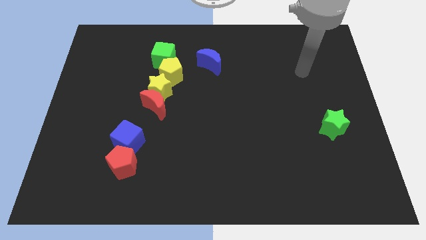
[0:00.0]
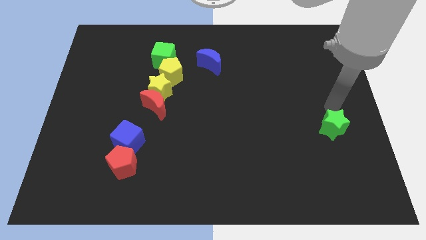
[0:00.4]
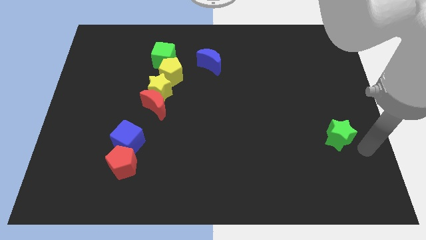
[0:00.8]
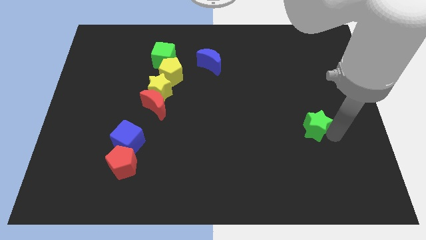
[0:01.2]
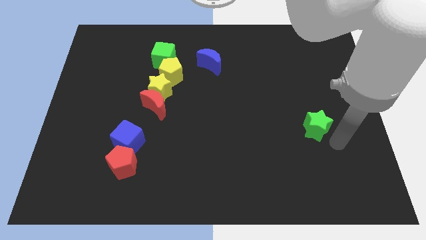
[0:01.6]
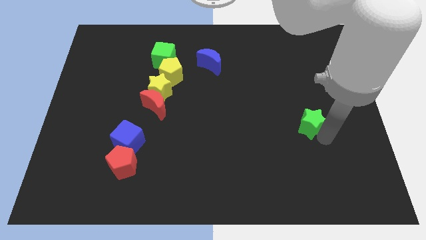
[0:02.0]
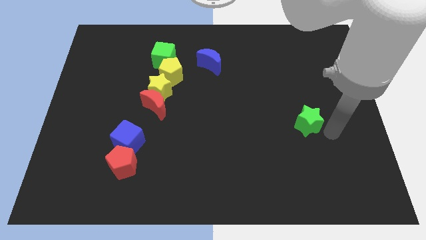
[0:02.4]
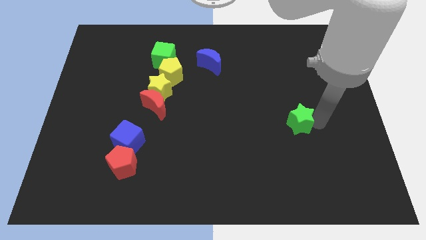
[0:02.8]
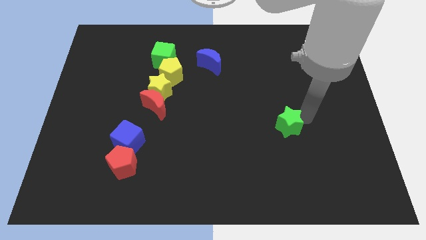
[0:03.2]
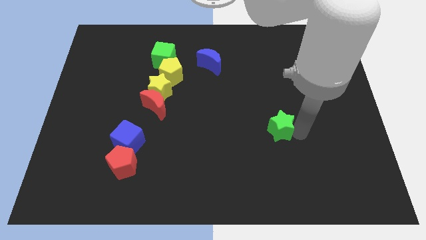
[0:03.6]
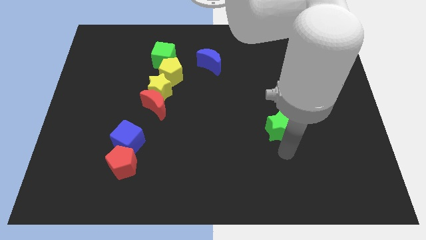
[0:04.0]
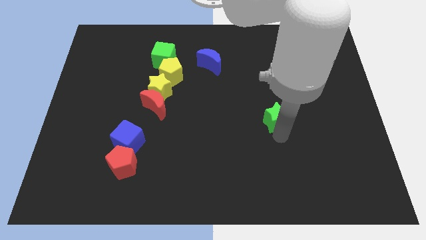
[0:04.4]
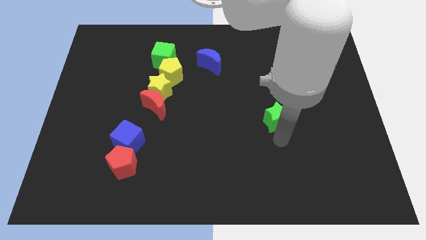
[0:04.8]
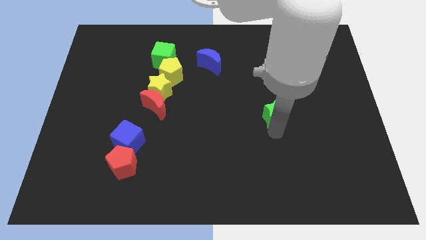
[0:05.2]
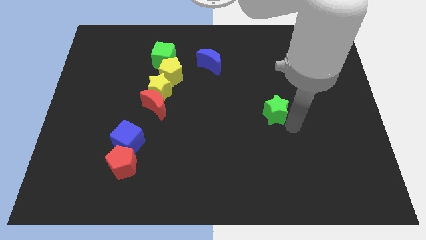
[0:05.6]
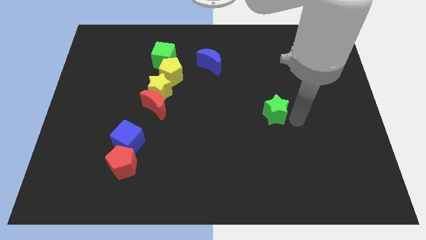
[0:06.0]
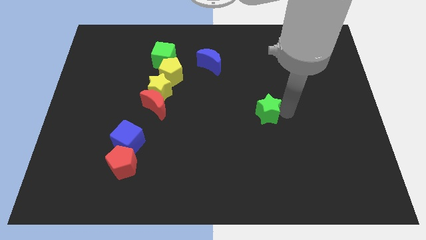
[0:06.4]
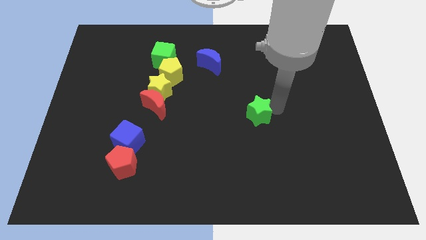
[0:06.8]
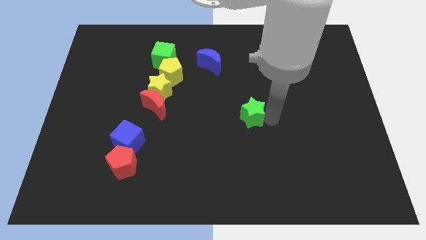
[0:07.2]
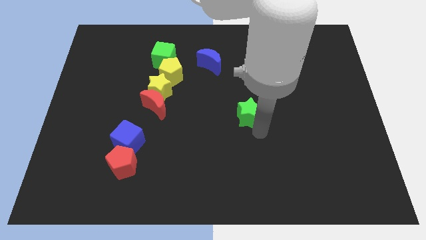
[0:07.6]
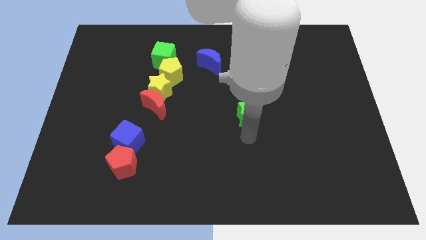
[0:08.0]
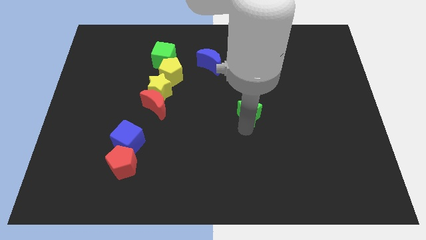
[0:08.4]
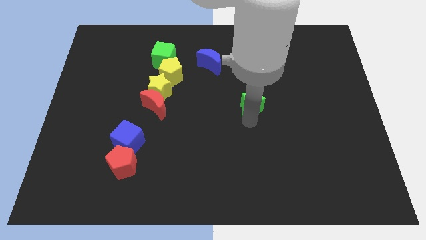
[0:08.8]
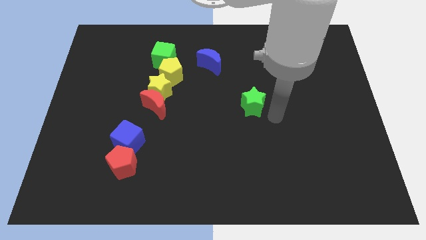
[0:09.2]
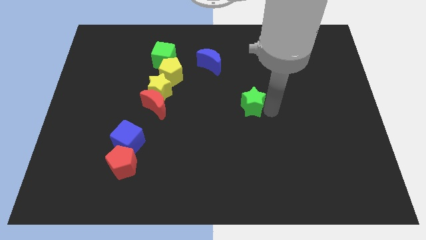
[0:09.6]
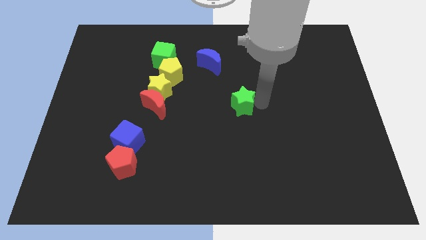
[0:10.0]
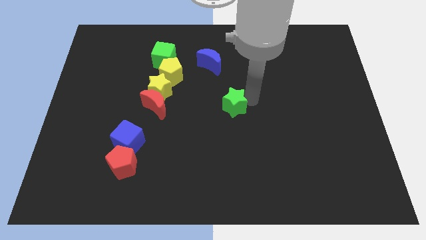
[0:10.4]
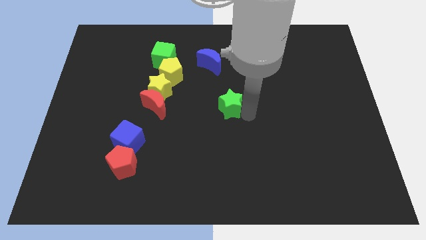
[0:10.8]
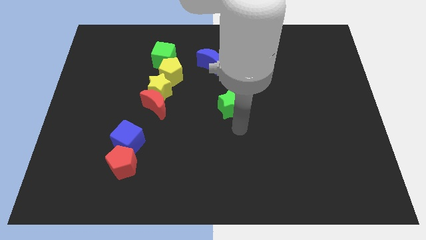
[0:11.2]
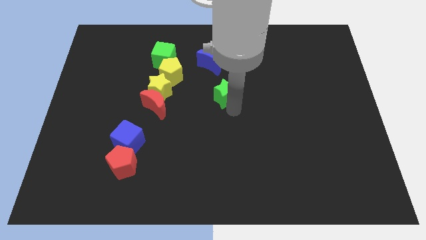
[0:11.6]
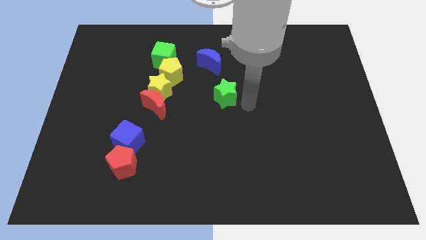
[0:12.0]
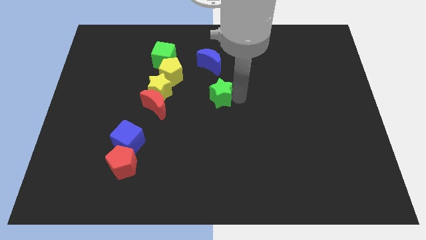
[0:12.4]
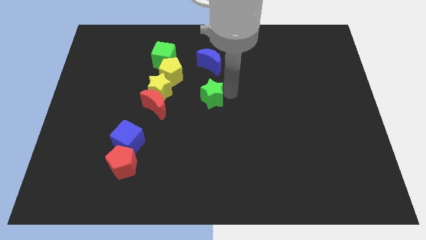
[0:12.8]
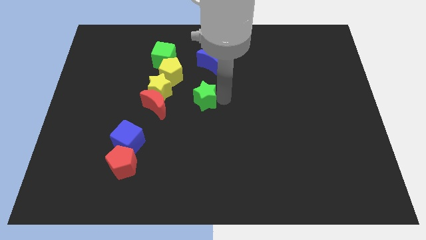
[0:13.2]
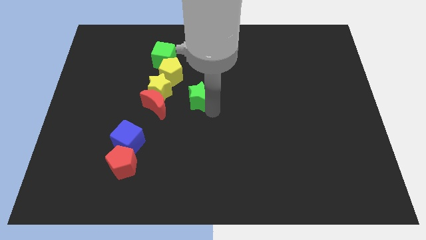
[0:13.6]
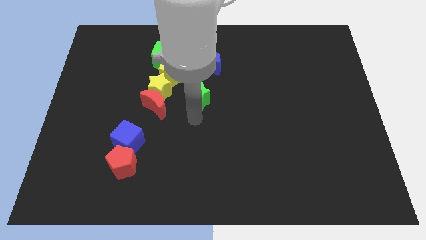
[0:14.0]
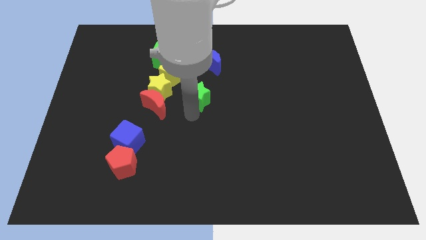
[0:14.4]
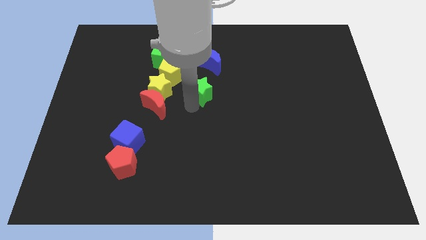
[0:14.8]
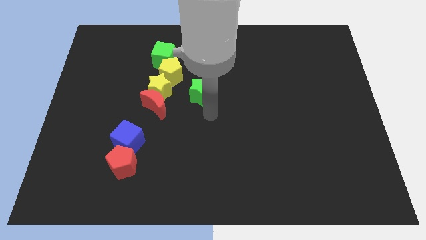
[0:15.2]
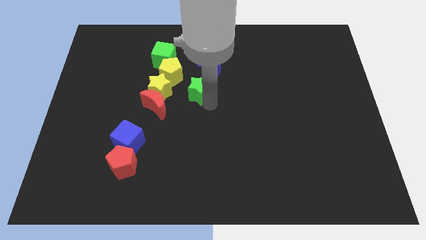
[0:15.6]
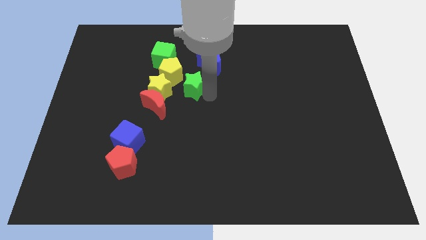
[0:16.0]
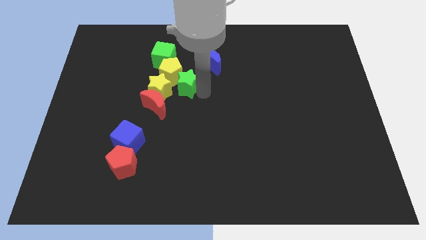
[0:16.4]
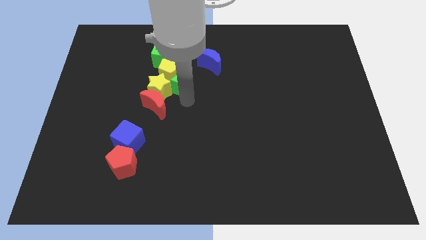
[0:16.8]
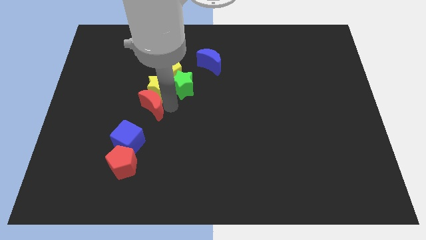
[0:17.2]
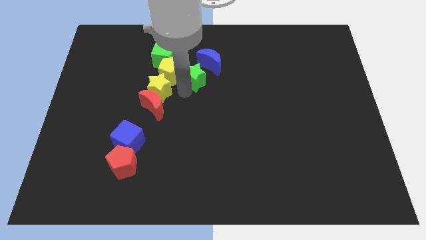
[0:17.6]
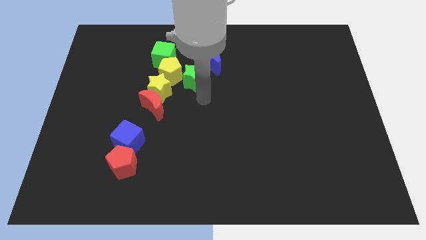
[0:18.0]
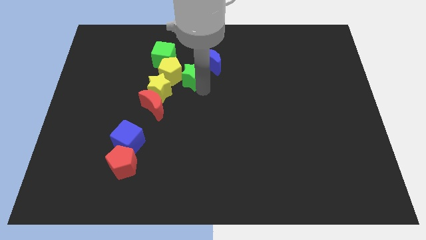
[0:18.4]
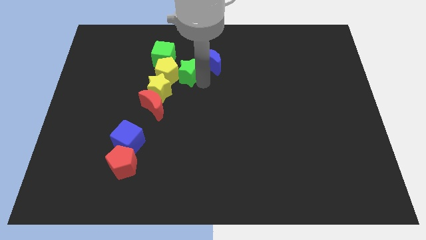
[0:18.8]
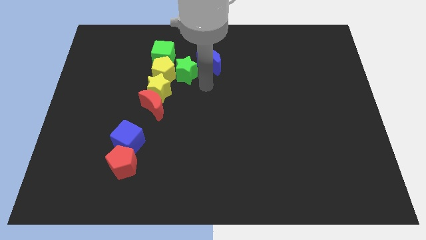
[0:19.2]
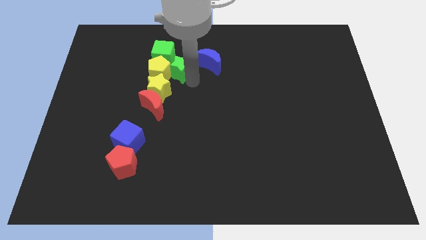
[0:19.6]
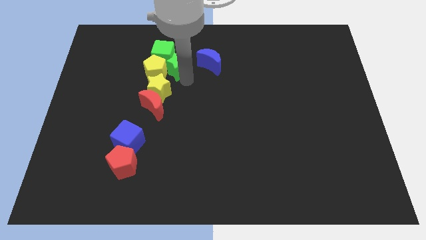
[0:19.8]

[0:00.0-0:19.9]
slide the green star next to the green cube

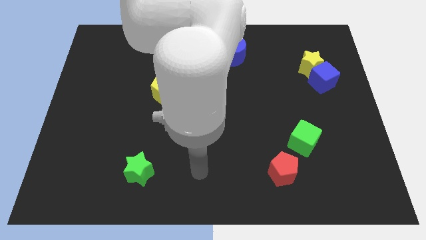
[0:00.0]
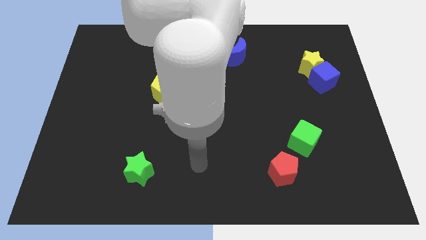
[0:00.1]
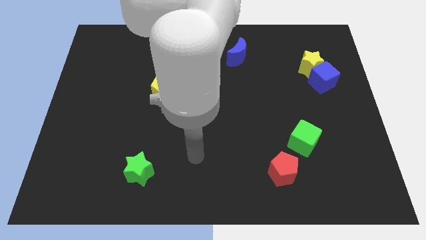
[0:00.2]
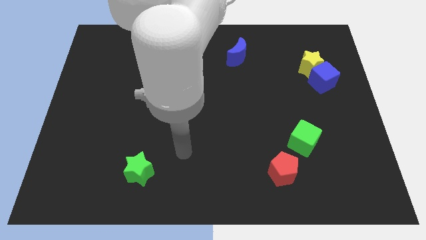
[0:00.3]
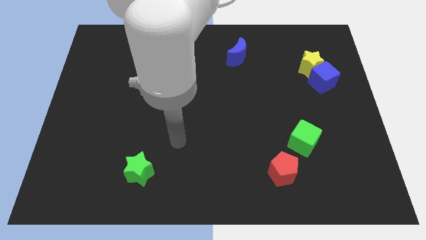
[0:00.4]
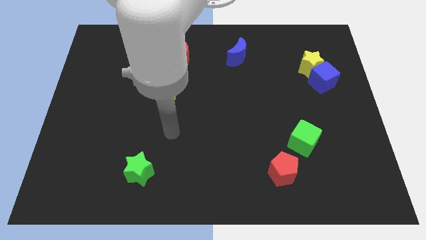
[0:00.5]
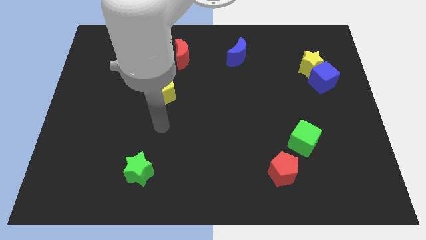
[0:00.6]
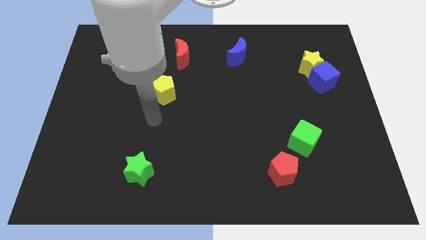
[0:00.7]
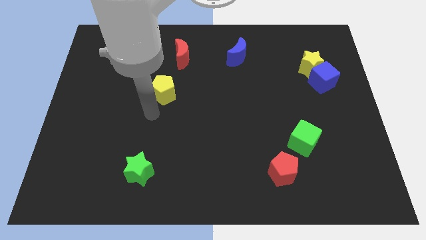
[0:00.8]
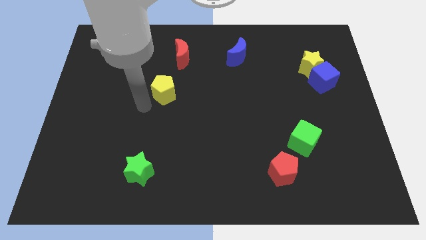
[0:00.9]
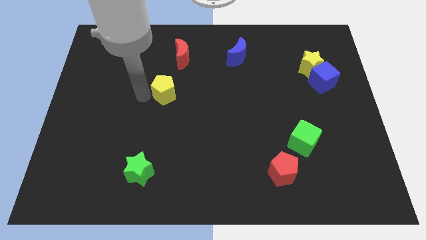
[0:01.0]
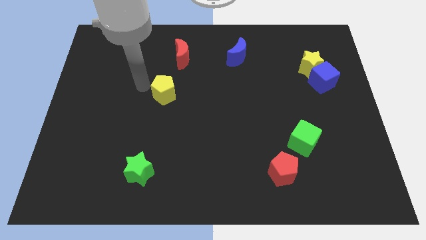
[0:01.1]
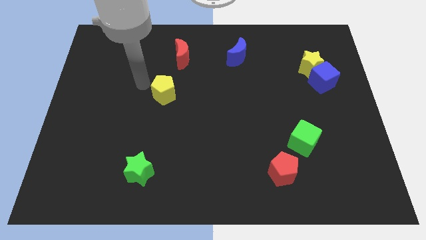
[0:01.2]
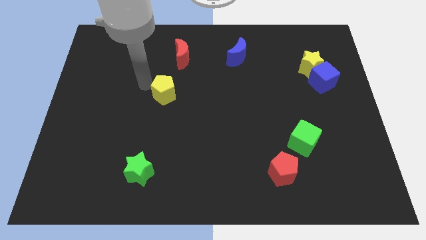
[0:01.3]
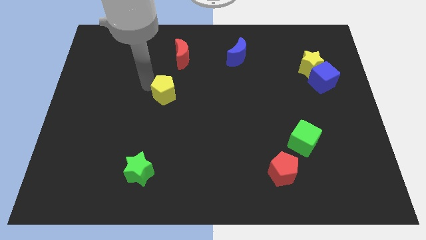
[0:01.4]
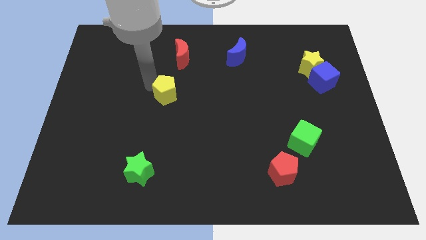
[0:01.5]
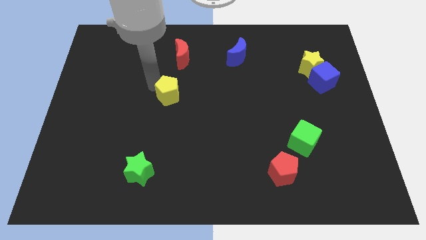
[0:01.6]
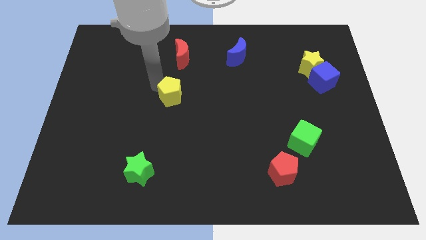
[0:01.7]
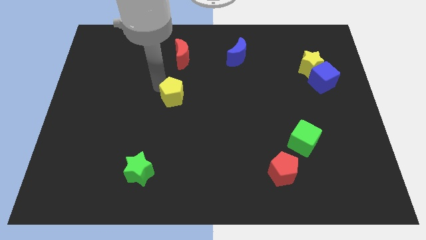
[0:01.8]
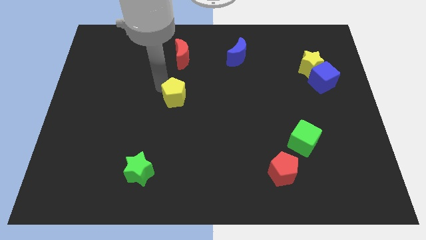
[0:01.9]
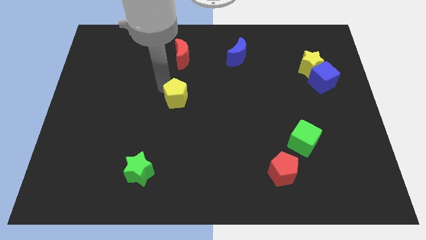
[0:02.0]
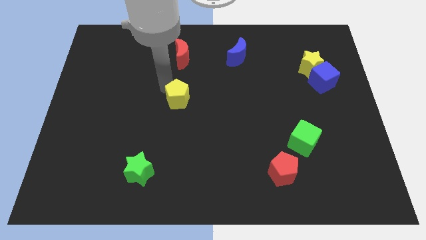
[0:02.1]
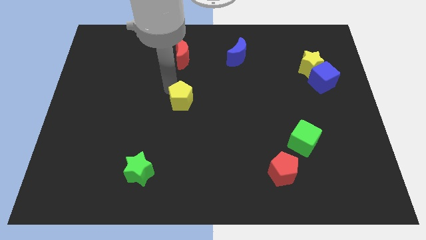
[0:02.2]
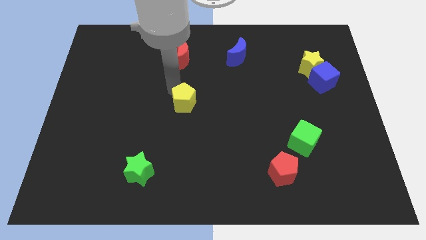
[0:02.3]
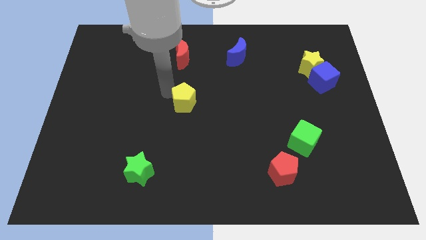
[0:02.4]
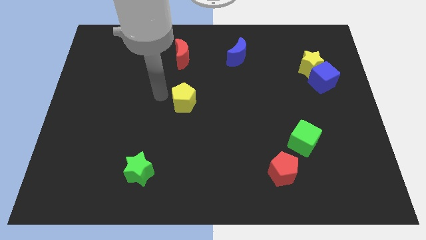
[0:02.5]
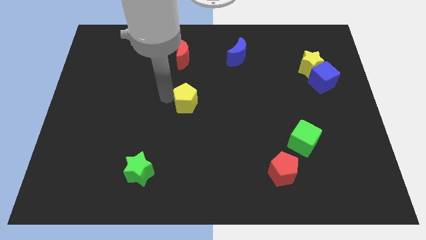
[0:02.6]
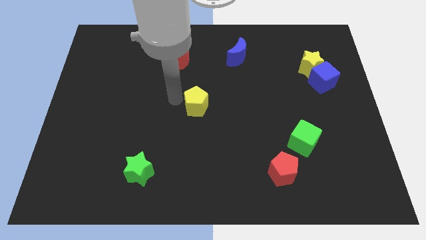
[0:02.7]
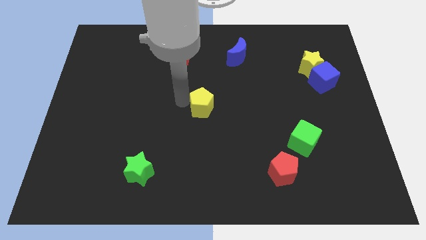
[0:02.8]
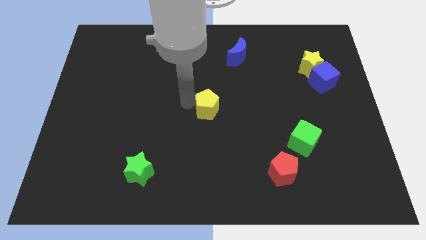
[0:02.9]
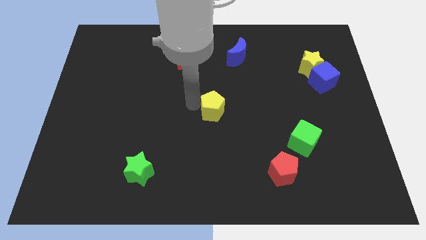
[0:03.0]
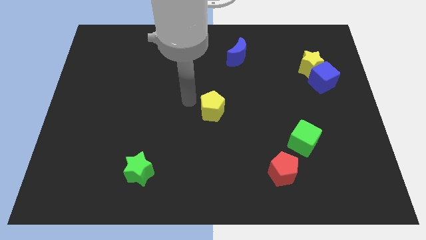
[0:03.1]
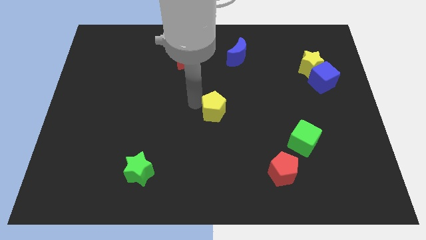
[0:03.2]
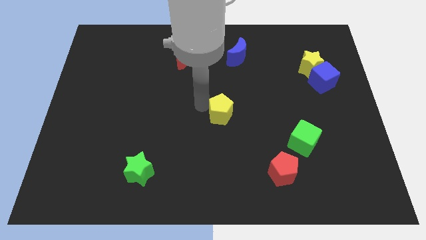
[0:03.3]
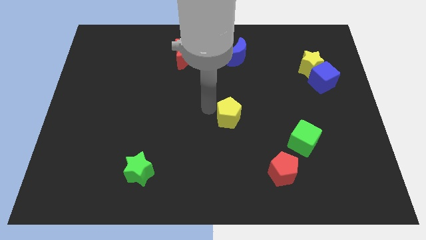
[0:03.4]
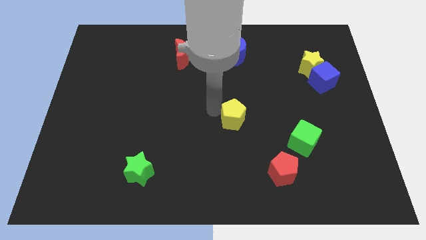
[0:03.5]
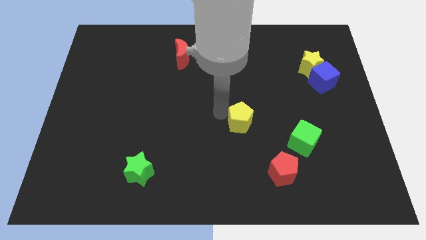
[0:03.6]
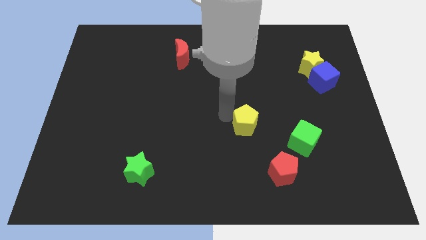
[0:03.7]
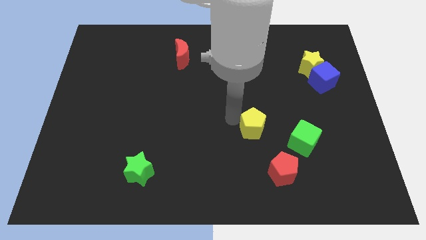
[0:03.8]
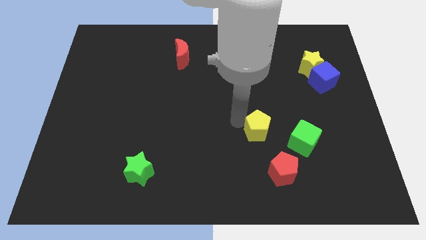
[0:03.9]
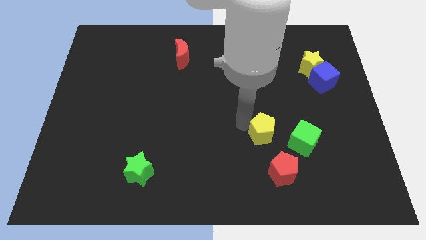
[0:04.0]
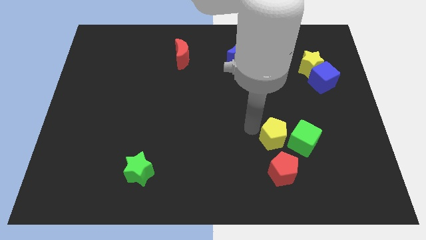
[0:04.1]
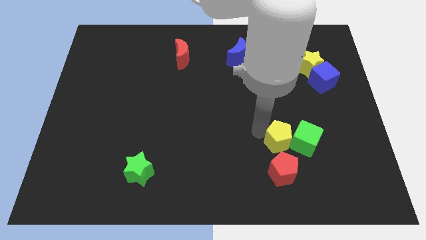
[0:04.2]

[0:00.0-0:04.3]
move the yellow pentagon next to the green cube
